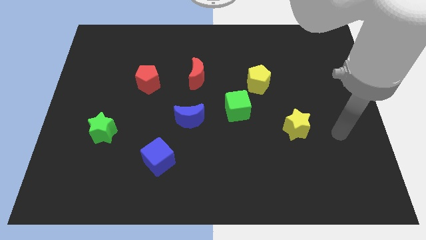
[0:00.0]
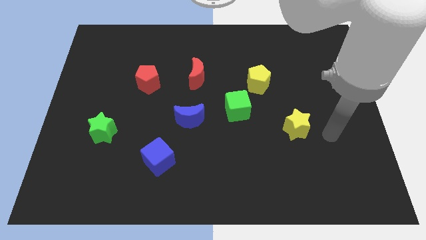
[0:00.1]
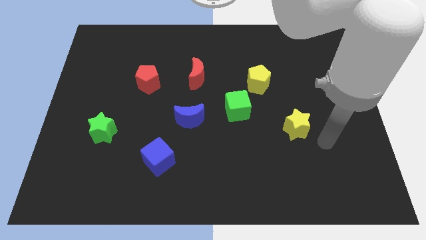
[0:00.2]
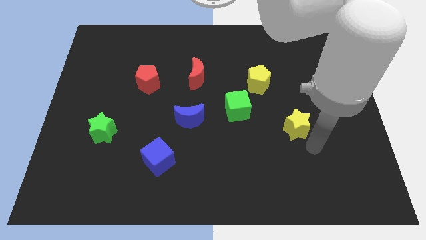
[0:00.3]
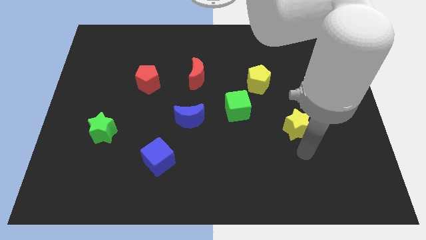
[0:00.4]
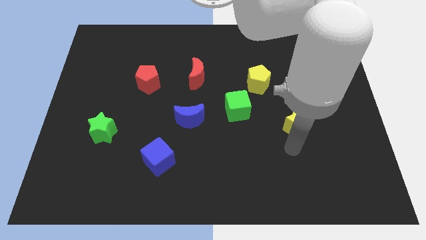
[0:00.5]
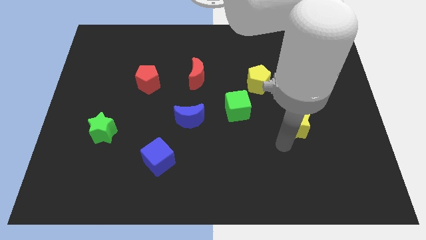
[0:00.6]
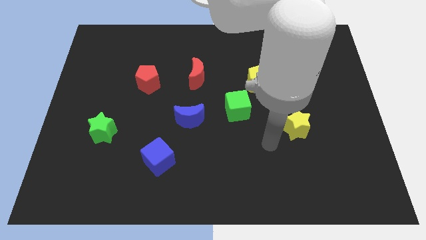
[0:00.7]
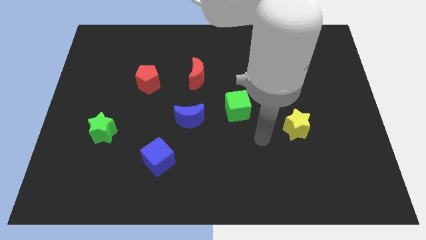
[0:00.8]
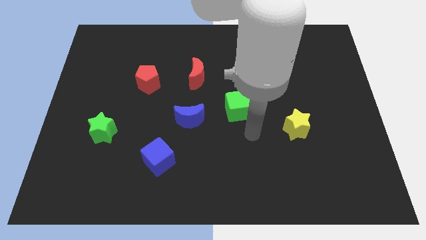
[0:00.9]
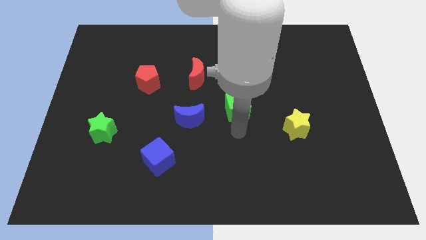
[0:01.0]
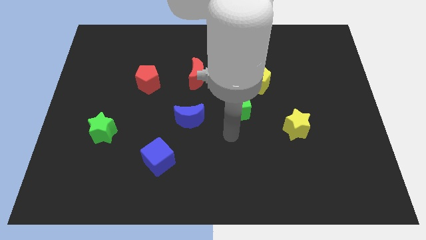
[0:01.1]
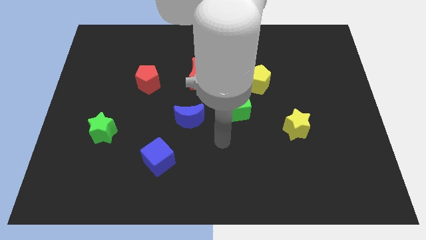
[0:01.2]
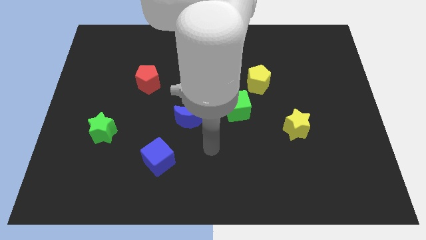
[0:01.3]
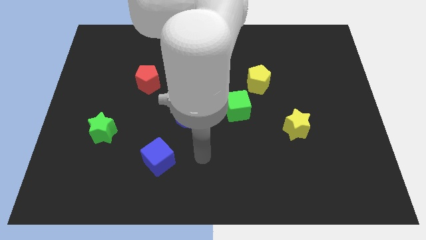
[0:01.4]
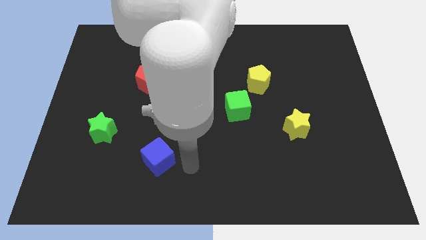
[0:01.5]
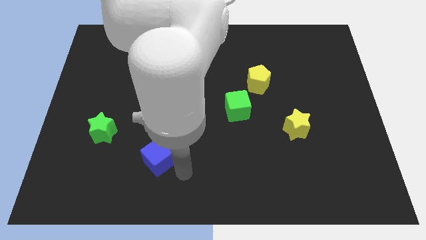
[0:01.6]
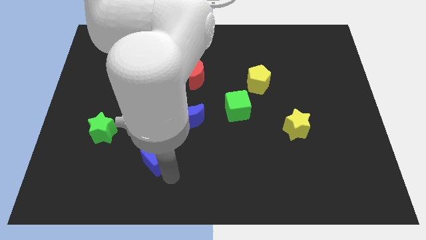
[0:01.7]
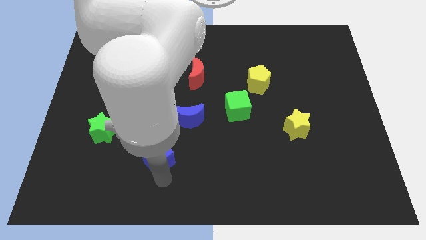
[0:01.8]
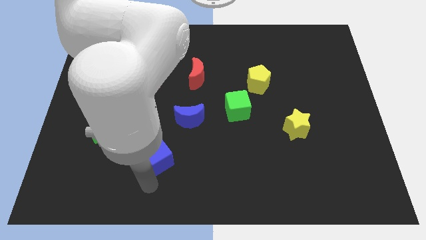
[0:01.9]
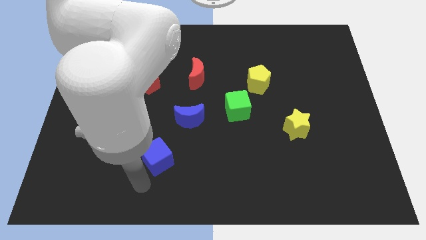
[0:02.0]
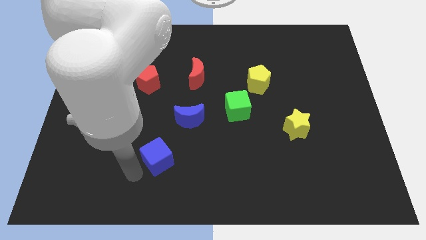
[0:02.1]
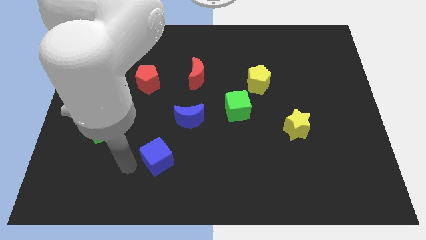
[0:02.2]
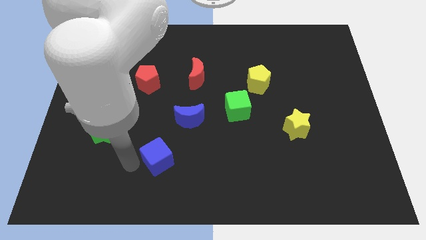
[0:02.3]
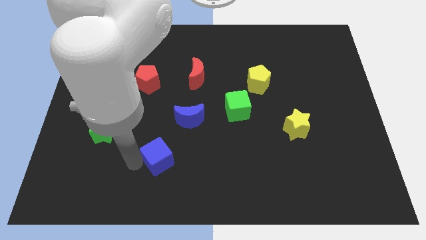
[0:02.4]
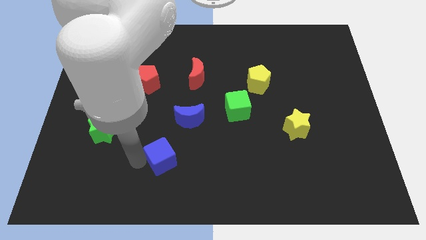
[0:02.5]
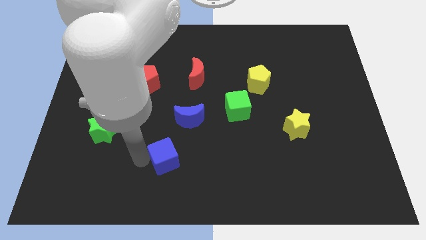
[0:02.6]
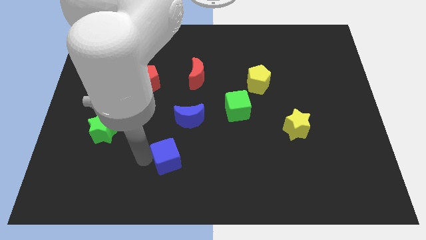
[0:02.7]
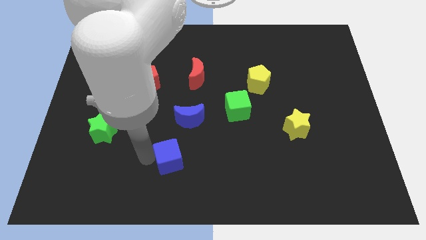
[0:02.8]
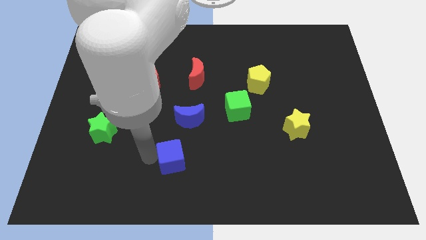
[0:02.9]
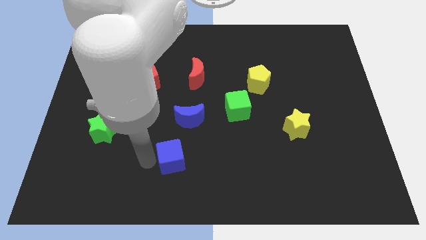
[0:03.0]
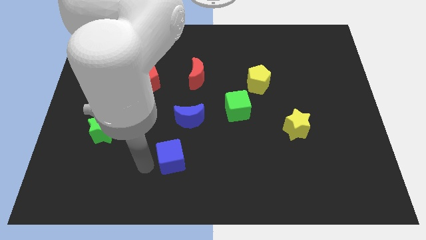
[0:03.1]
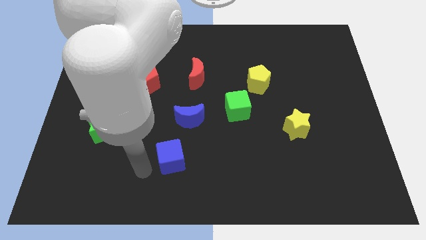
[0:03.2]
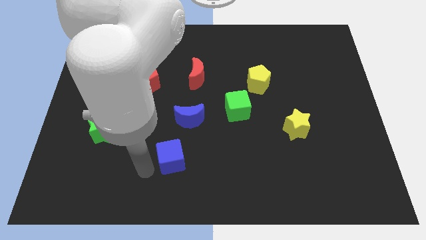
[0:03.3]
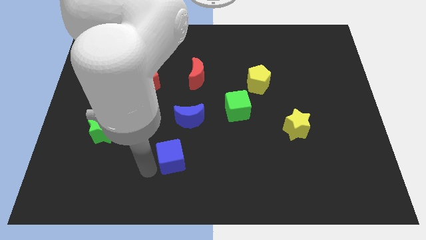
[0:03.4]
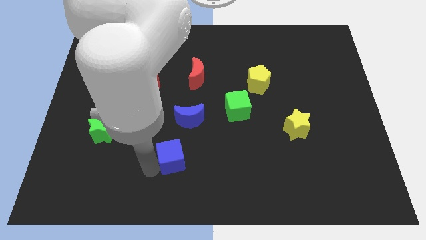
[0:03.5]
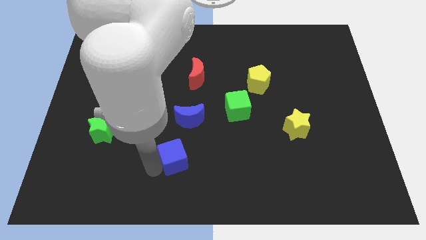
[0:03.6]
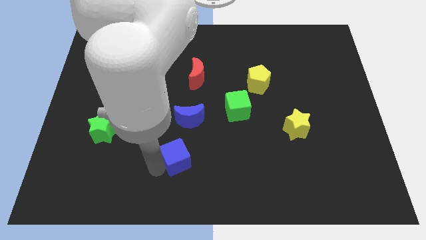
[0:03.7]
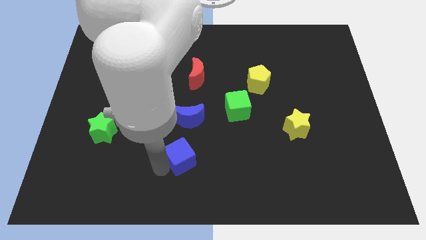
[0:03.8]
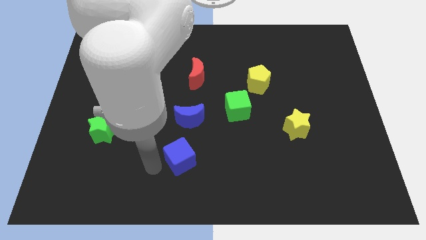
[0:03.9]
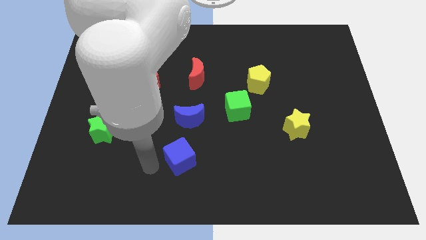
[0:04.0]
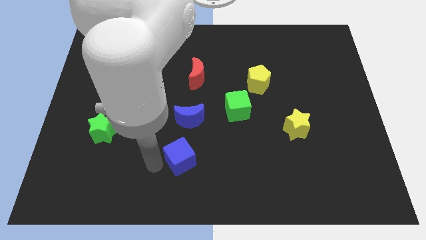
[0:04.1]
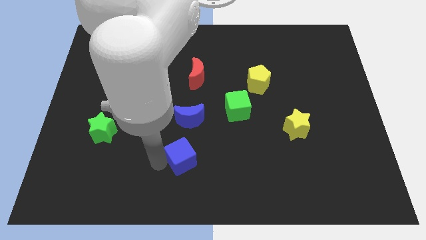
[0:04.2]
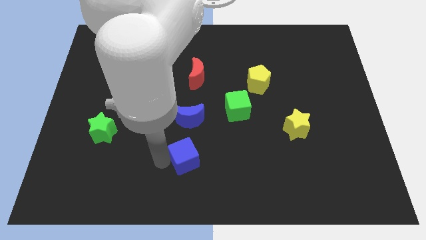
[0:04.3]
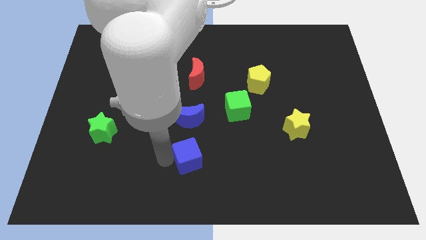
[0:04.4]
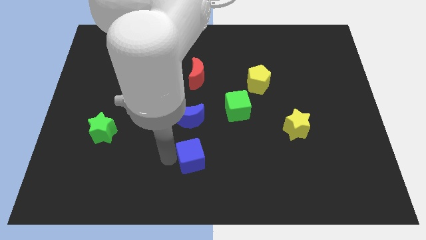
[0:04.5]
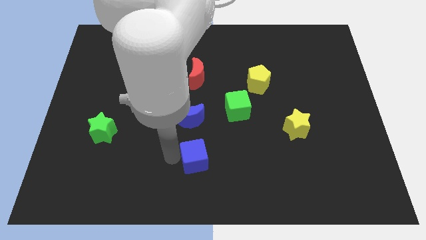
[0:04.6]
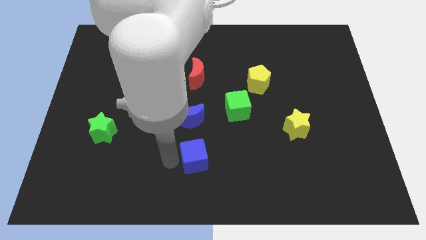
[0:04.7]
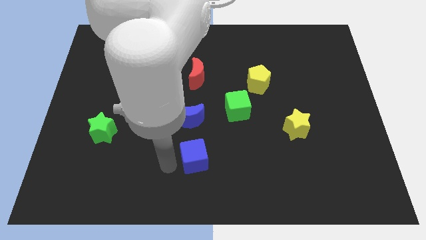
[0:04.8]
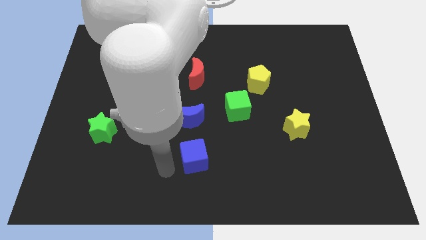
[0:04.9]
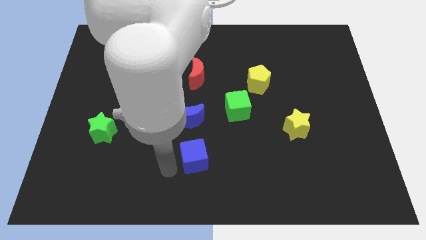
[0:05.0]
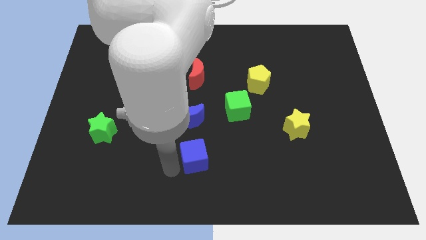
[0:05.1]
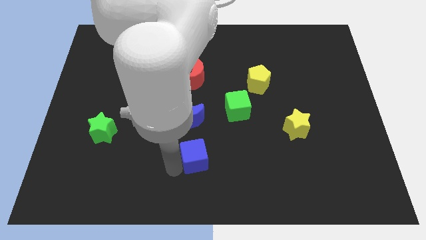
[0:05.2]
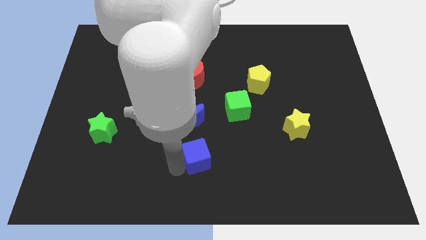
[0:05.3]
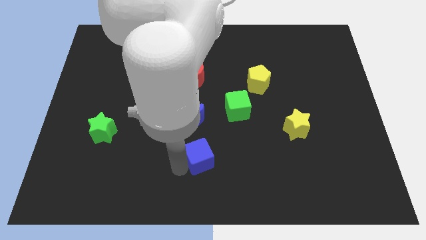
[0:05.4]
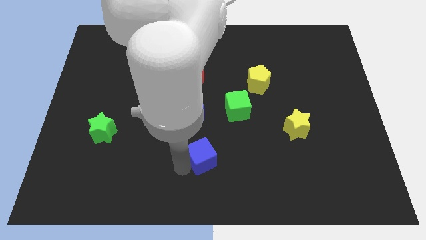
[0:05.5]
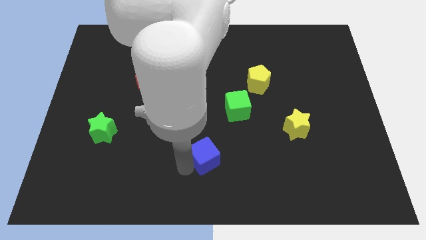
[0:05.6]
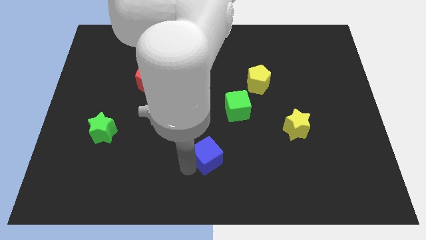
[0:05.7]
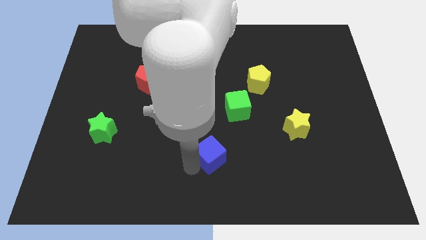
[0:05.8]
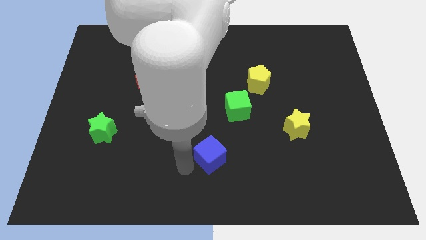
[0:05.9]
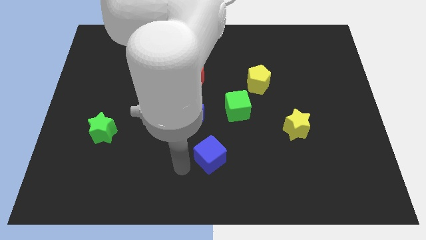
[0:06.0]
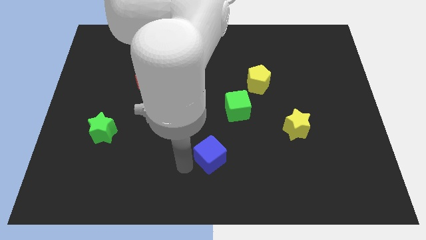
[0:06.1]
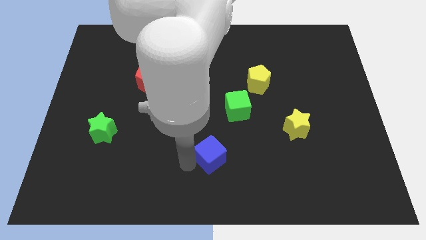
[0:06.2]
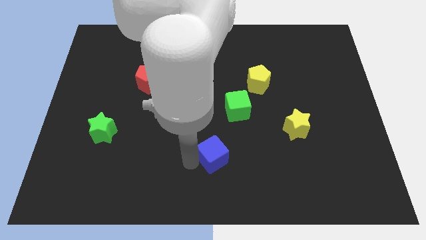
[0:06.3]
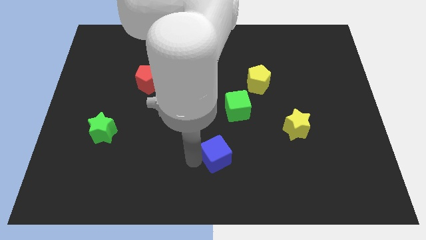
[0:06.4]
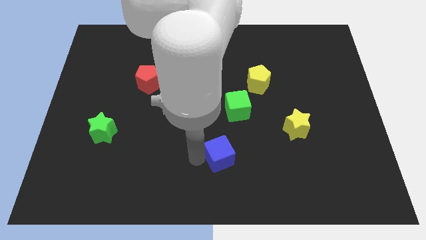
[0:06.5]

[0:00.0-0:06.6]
move the blue cube to the bottom of the green cube

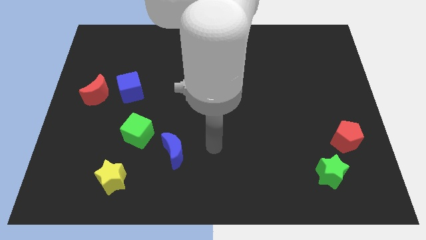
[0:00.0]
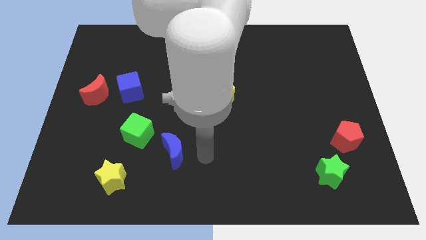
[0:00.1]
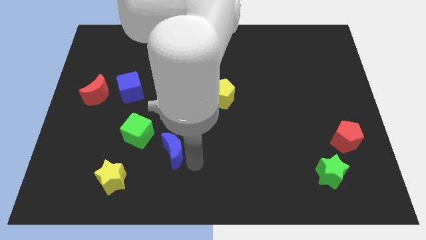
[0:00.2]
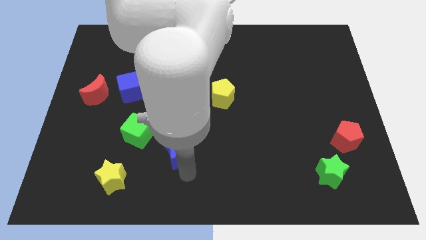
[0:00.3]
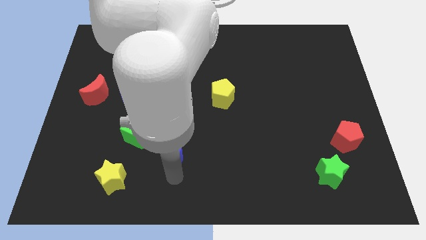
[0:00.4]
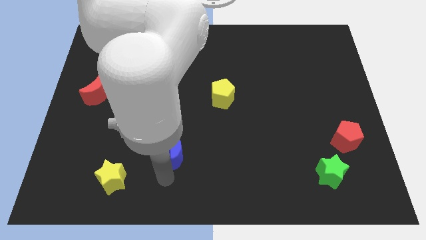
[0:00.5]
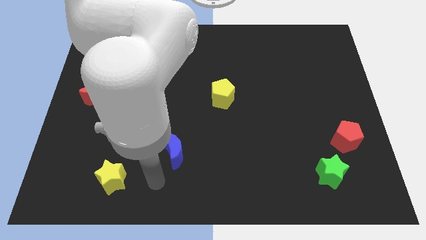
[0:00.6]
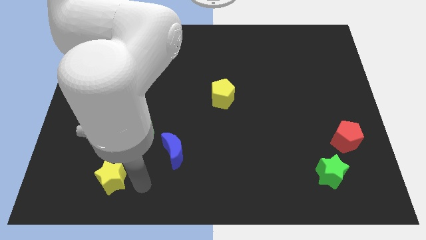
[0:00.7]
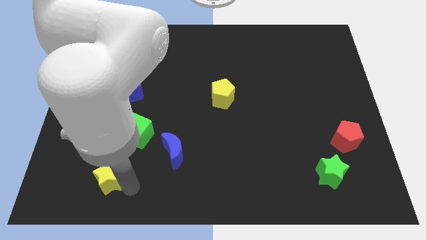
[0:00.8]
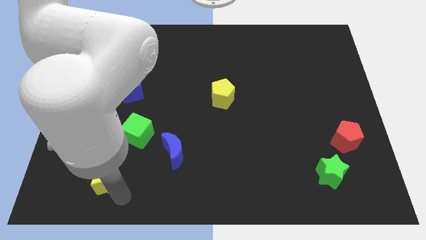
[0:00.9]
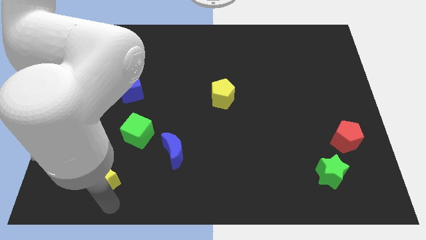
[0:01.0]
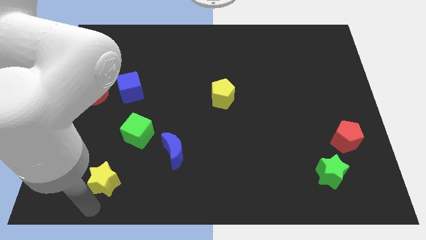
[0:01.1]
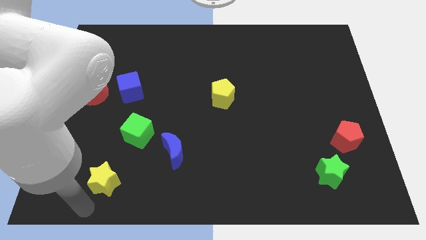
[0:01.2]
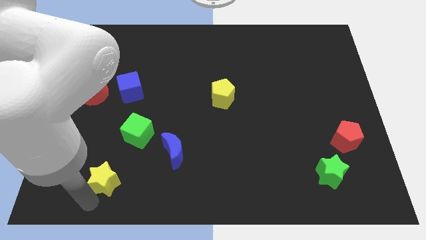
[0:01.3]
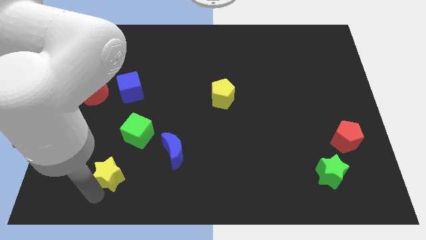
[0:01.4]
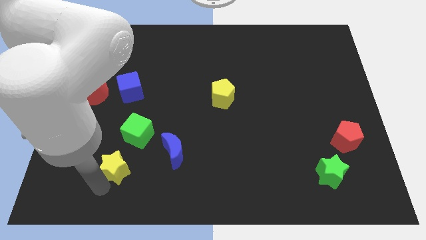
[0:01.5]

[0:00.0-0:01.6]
push the yellow star left of the blue moon
